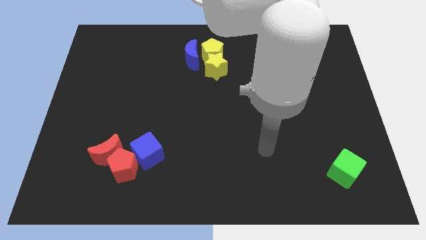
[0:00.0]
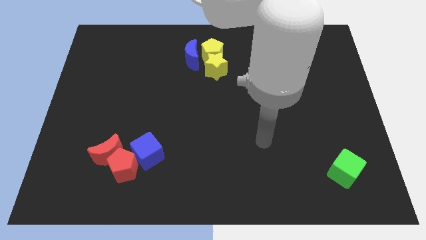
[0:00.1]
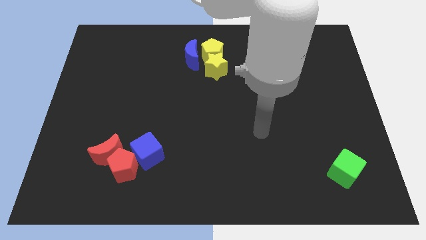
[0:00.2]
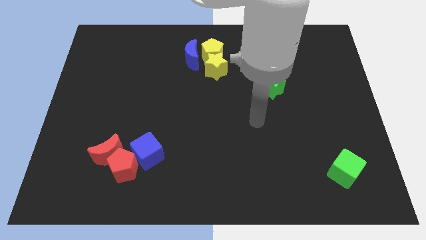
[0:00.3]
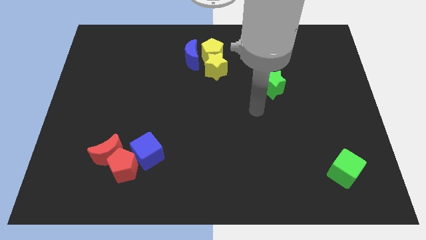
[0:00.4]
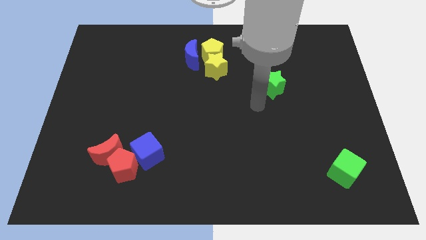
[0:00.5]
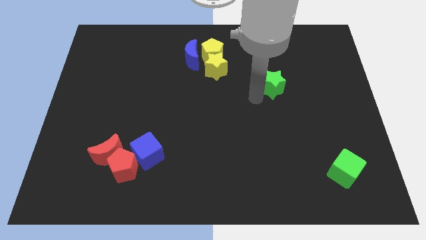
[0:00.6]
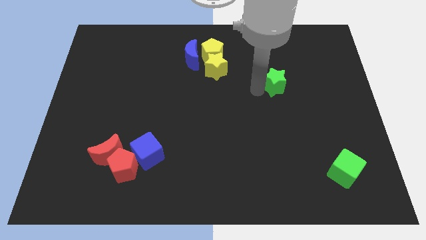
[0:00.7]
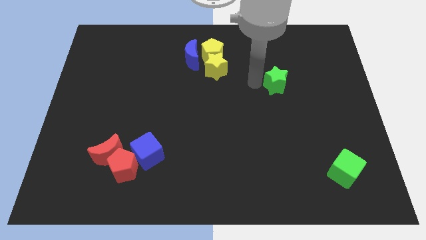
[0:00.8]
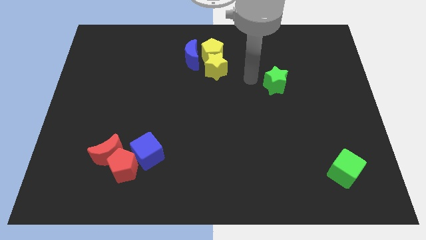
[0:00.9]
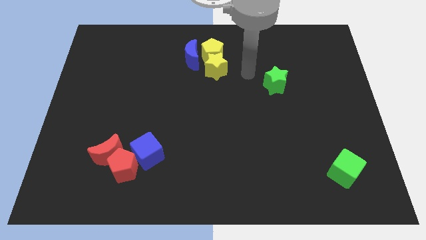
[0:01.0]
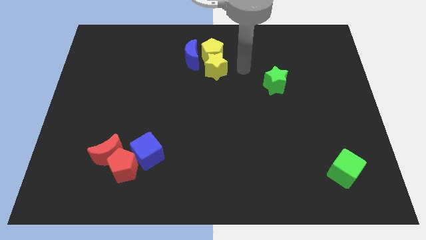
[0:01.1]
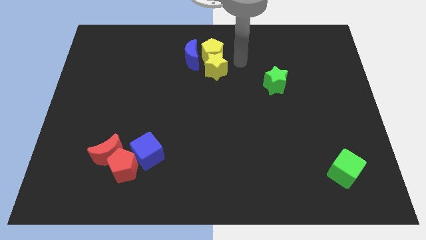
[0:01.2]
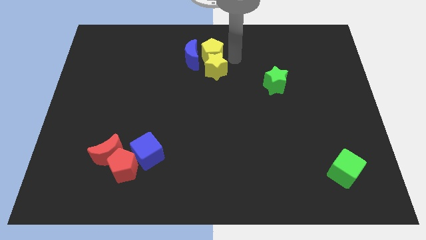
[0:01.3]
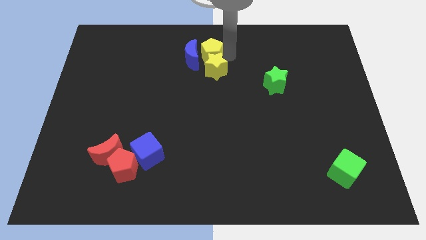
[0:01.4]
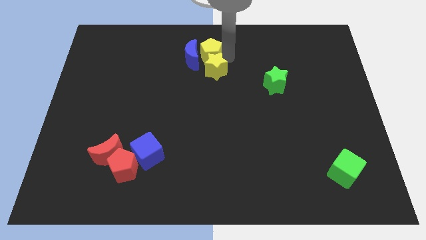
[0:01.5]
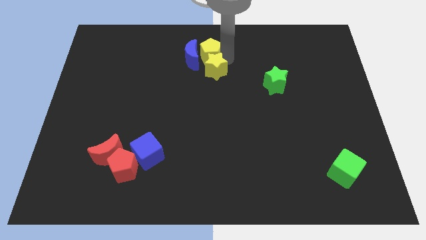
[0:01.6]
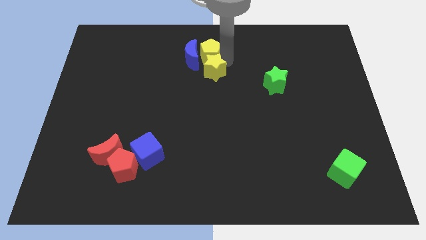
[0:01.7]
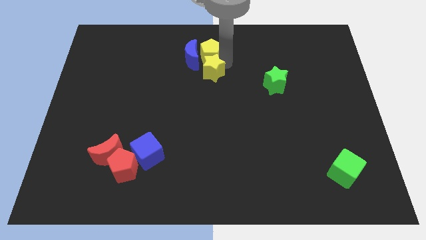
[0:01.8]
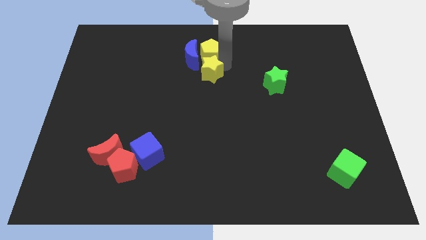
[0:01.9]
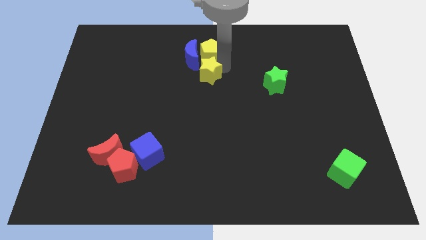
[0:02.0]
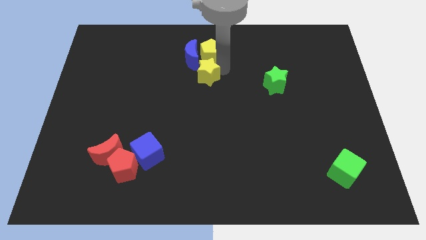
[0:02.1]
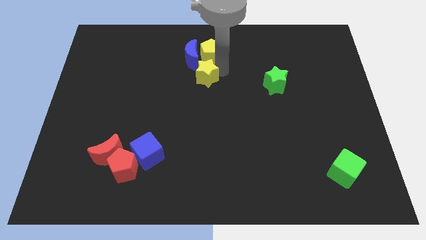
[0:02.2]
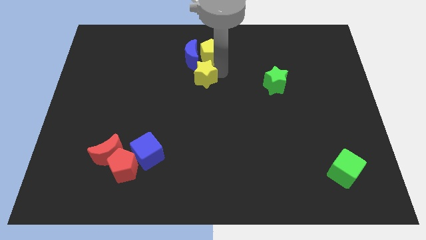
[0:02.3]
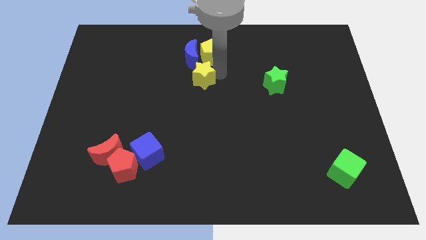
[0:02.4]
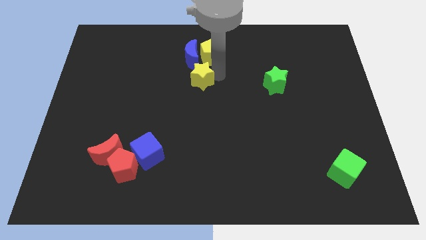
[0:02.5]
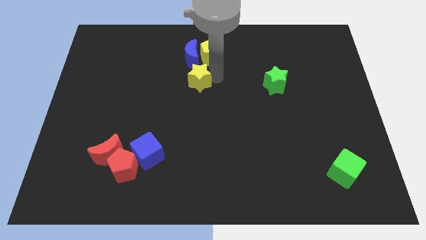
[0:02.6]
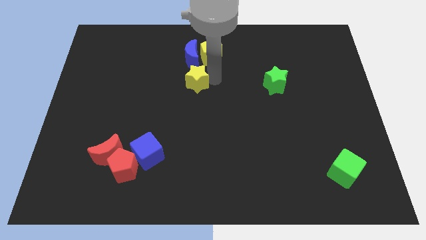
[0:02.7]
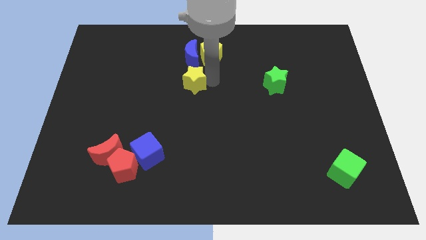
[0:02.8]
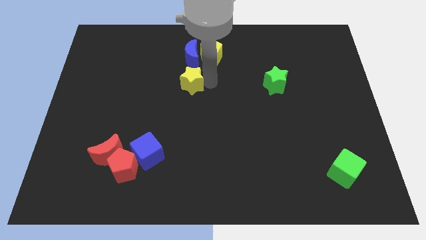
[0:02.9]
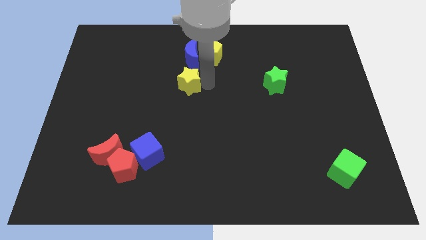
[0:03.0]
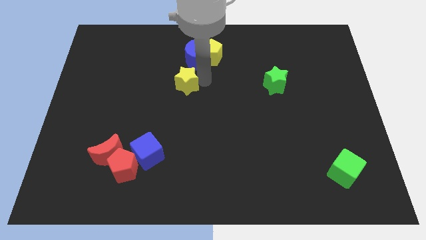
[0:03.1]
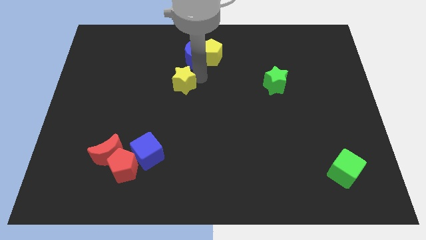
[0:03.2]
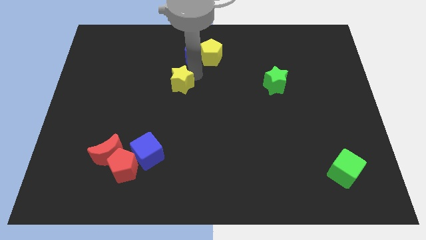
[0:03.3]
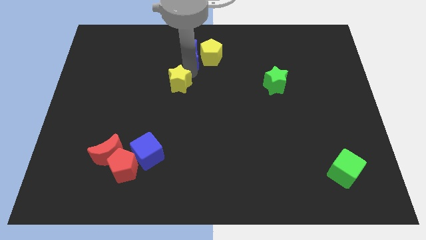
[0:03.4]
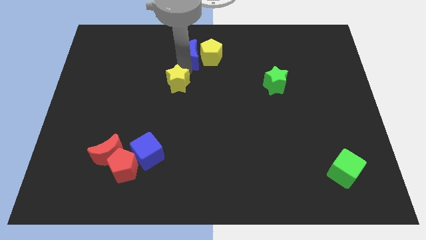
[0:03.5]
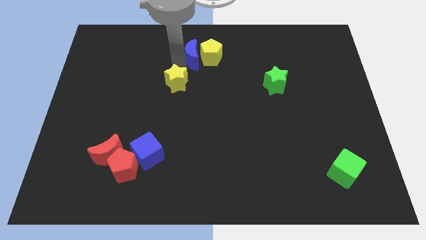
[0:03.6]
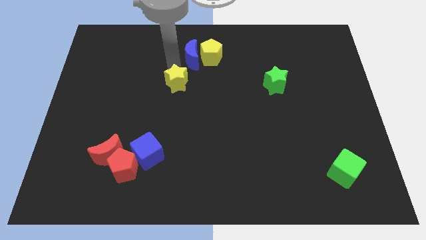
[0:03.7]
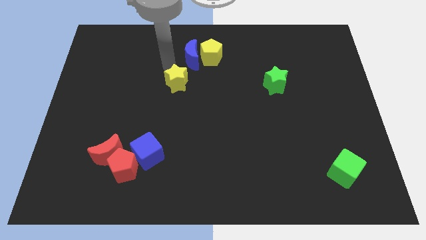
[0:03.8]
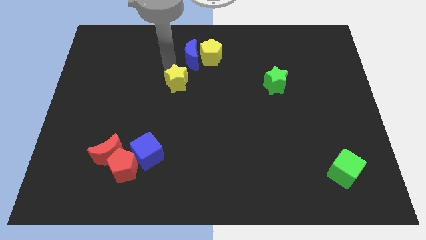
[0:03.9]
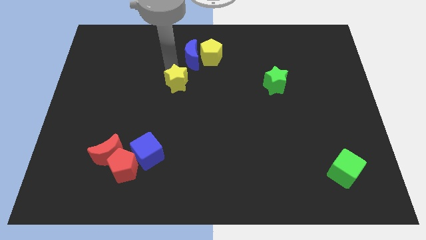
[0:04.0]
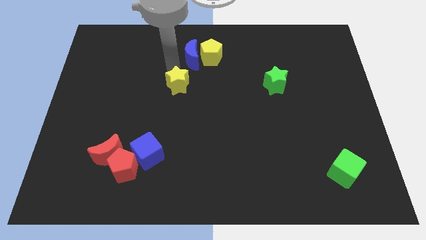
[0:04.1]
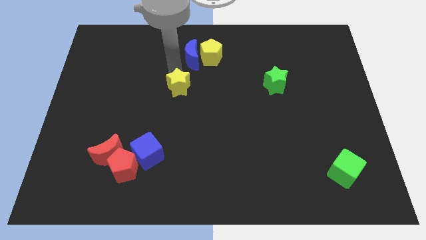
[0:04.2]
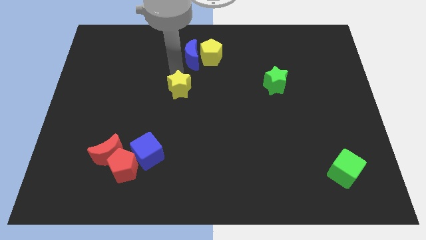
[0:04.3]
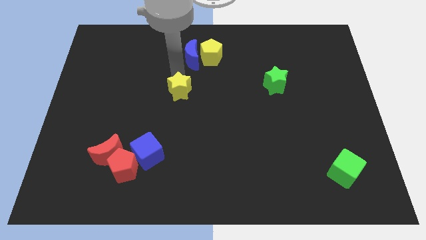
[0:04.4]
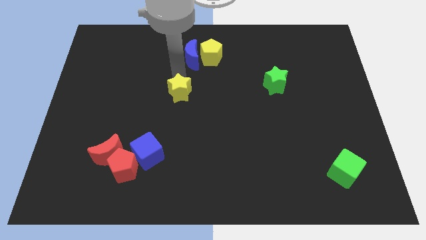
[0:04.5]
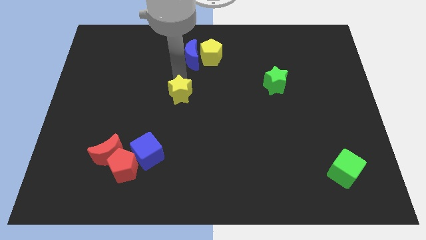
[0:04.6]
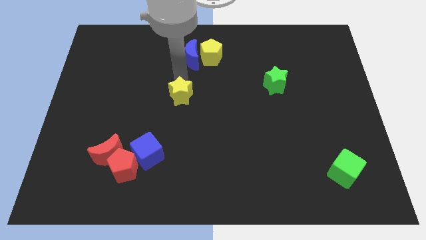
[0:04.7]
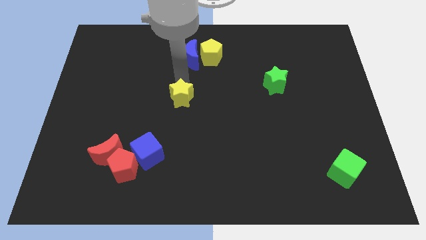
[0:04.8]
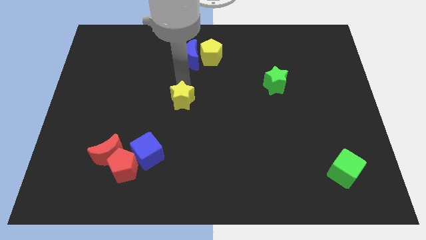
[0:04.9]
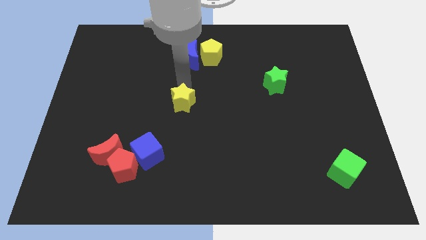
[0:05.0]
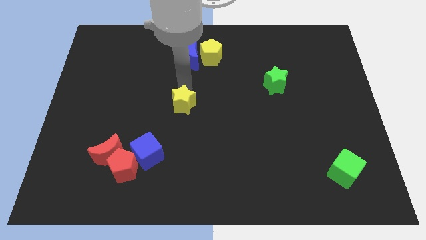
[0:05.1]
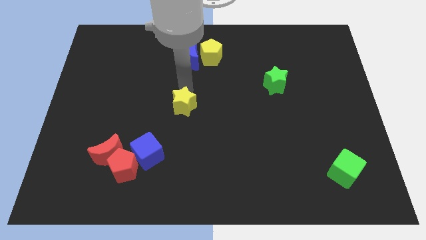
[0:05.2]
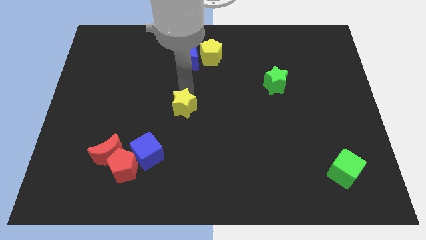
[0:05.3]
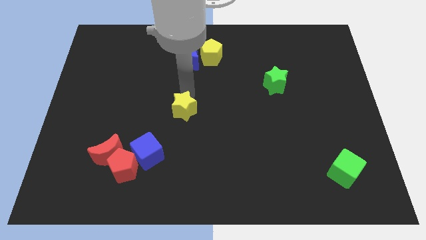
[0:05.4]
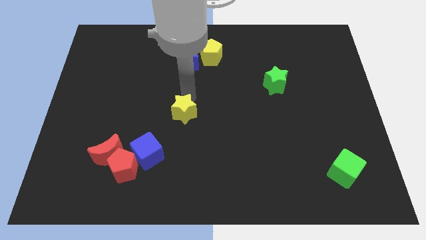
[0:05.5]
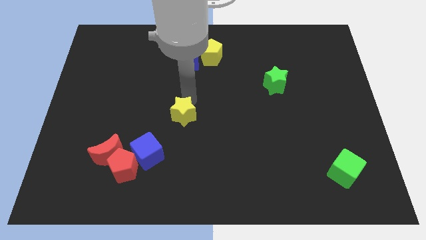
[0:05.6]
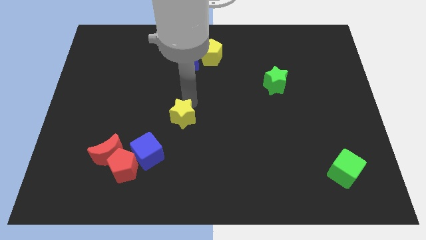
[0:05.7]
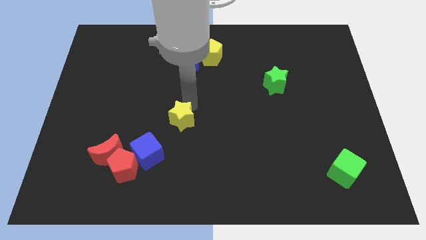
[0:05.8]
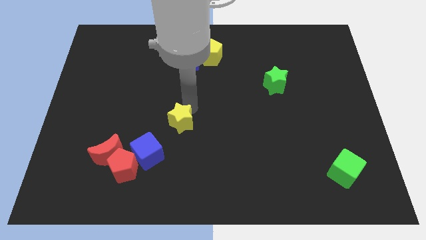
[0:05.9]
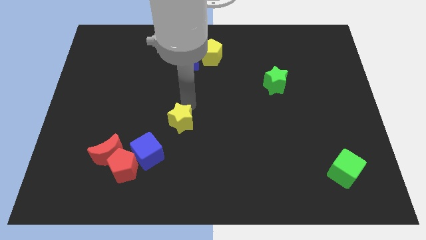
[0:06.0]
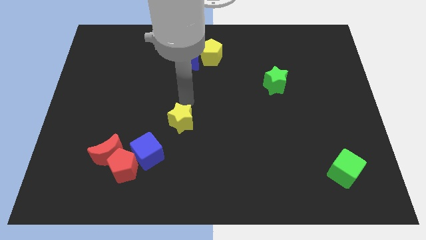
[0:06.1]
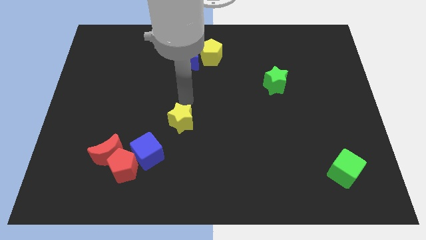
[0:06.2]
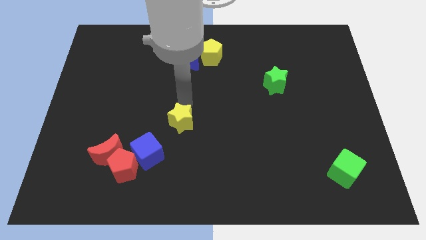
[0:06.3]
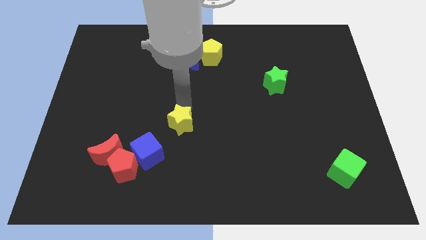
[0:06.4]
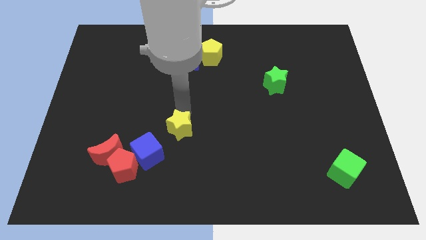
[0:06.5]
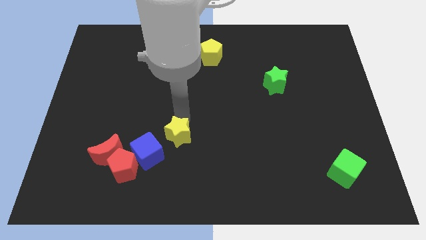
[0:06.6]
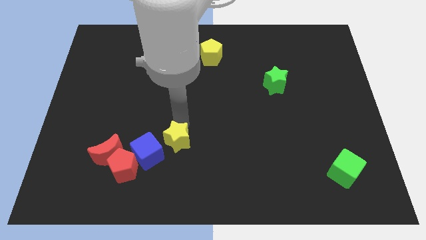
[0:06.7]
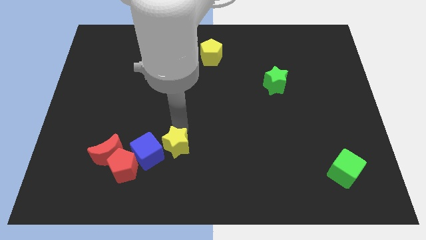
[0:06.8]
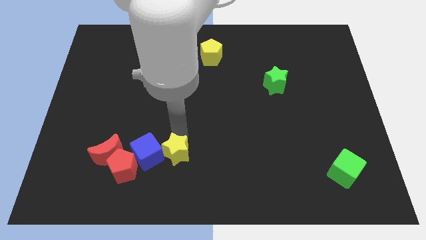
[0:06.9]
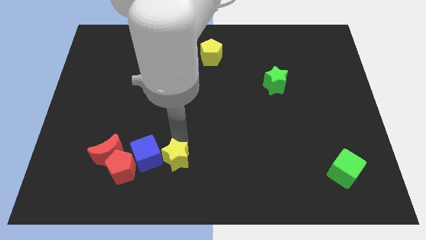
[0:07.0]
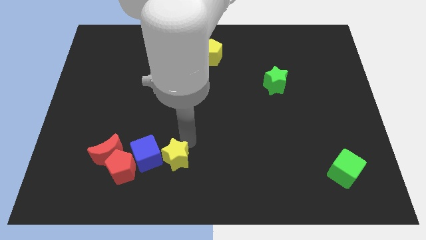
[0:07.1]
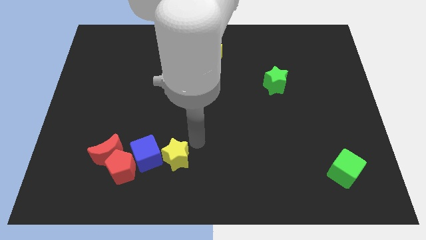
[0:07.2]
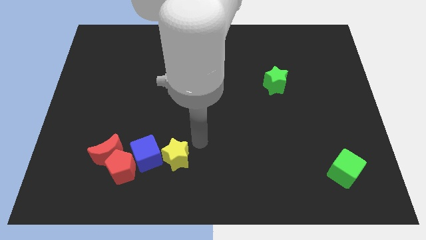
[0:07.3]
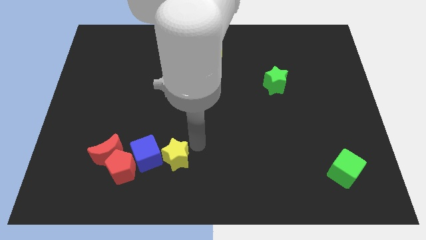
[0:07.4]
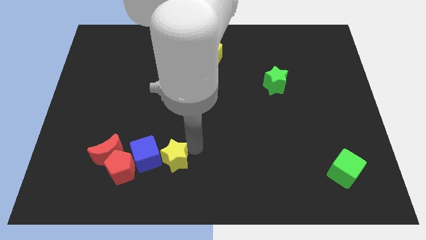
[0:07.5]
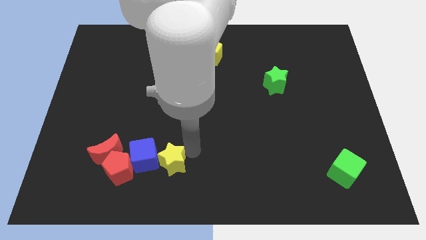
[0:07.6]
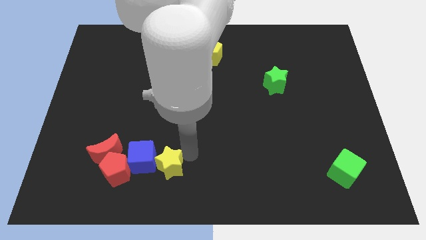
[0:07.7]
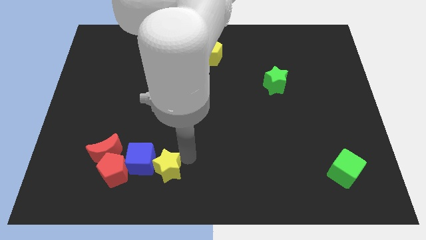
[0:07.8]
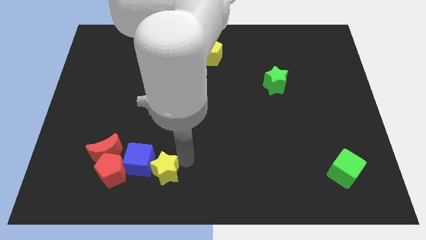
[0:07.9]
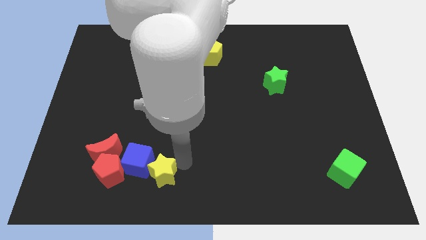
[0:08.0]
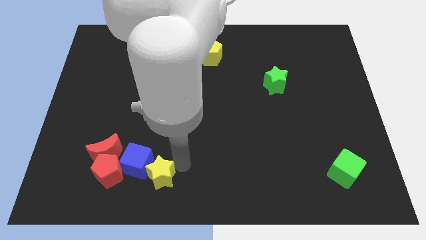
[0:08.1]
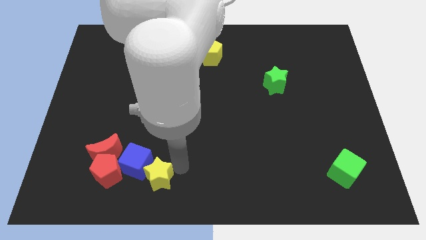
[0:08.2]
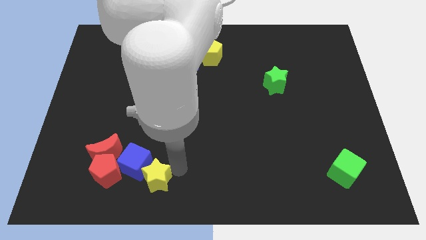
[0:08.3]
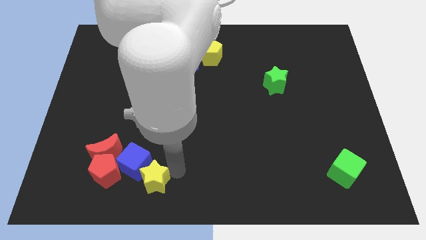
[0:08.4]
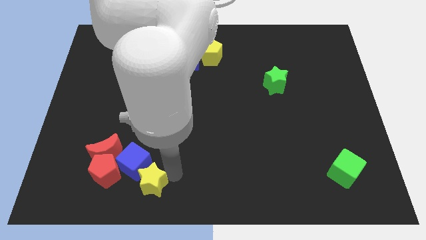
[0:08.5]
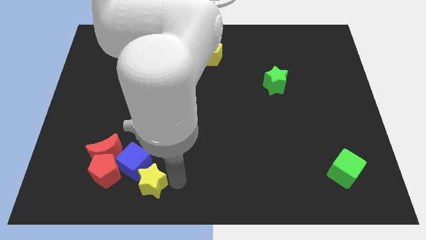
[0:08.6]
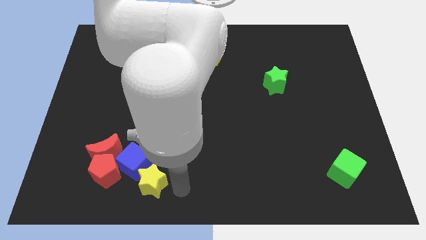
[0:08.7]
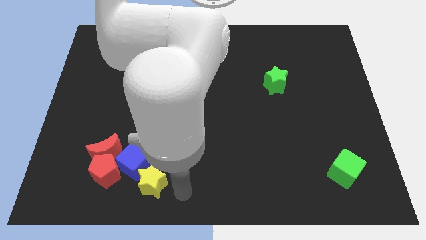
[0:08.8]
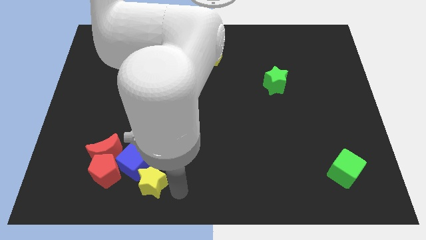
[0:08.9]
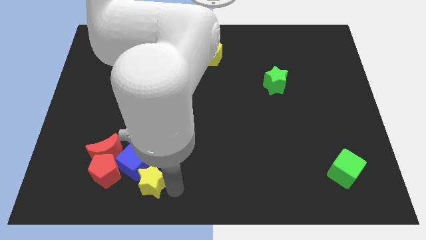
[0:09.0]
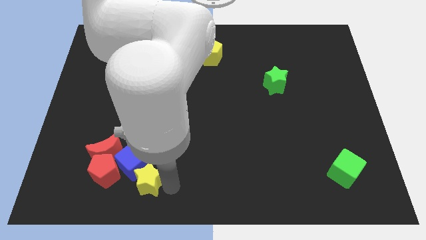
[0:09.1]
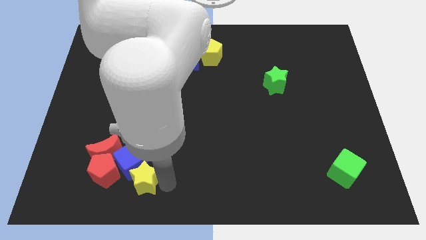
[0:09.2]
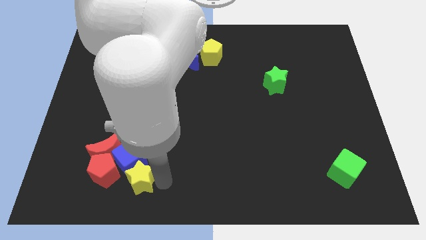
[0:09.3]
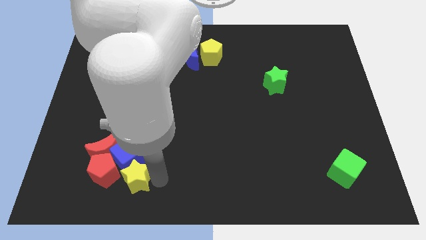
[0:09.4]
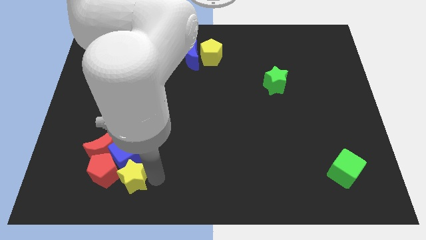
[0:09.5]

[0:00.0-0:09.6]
put the yellow star to the red pentagon
